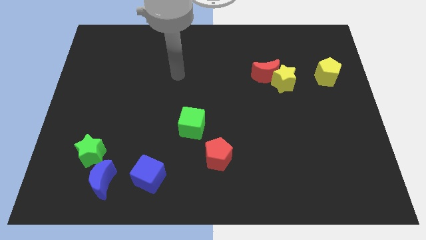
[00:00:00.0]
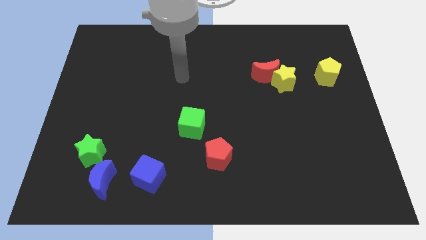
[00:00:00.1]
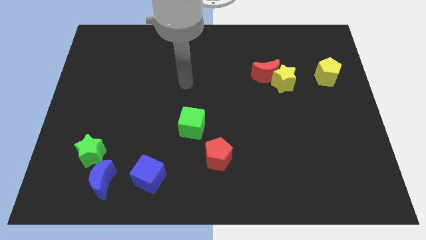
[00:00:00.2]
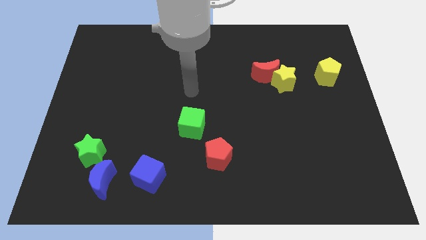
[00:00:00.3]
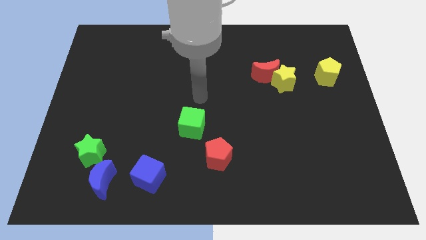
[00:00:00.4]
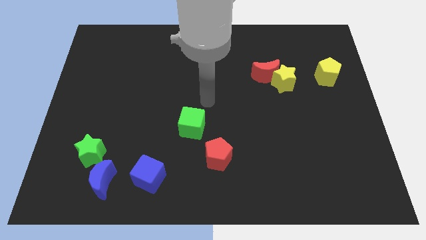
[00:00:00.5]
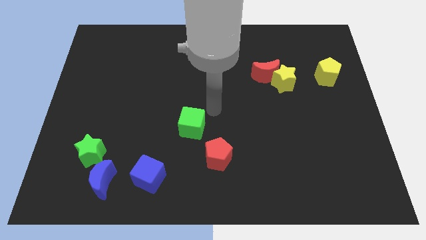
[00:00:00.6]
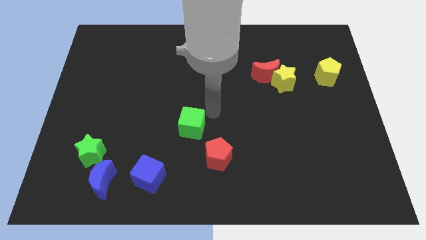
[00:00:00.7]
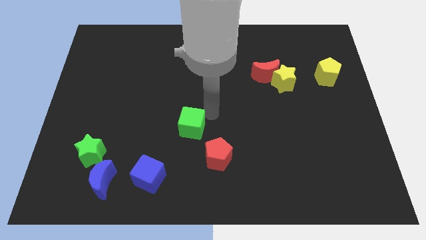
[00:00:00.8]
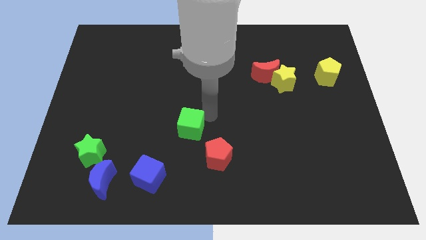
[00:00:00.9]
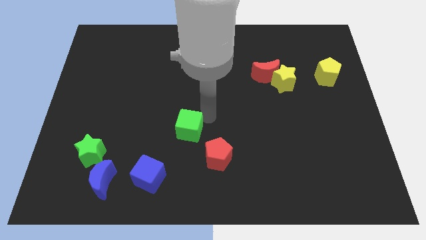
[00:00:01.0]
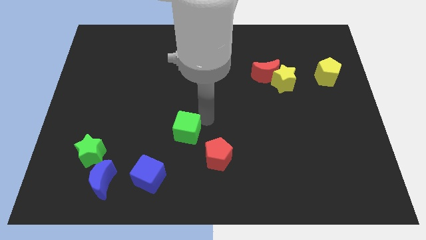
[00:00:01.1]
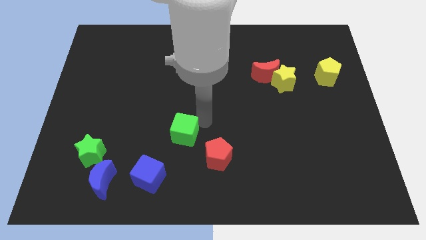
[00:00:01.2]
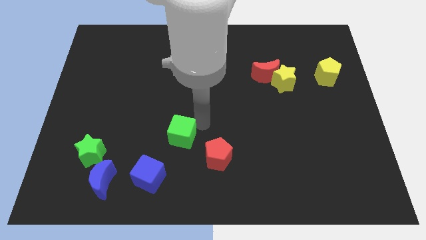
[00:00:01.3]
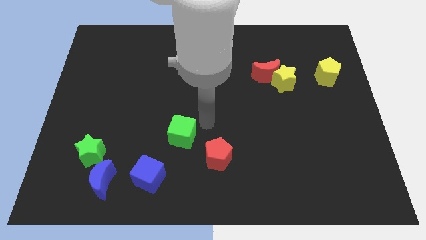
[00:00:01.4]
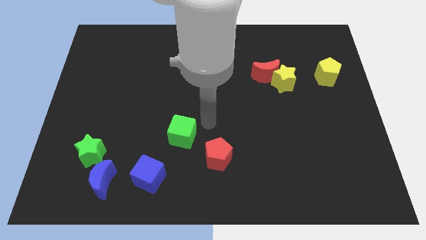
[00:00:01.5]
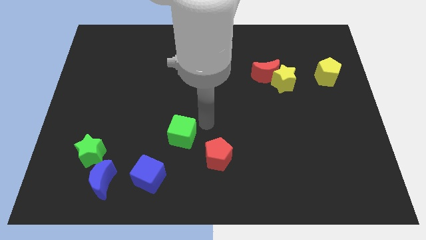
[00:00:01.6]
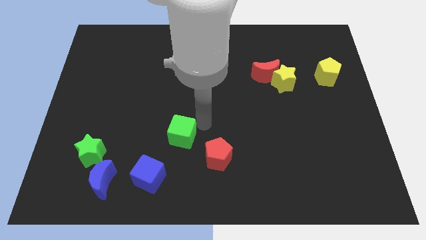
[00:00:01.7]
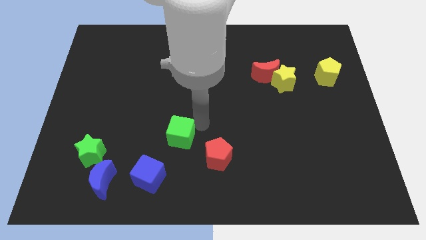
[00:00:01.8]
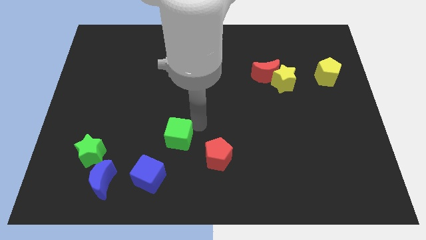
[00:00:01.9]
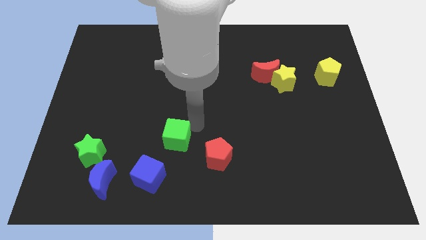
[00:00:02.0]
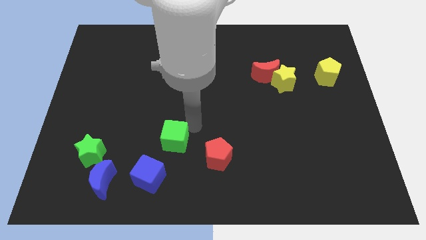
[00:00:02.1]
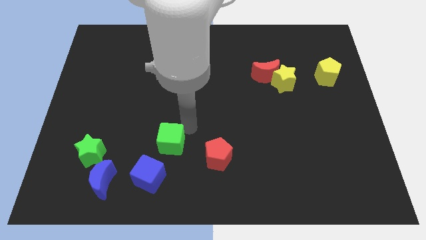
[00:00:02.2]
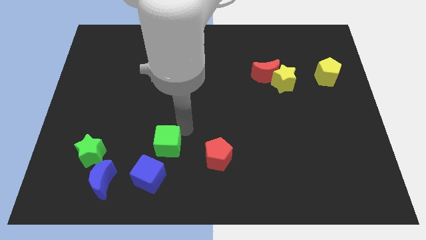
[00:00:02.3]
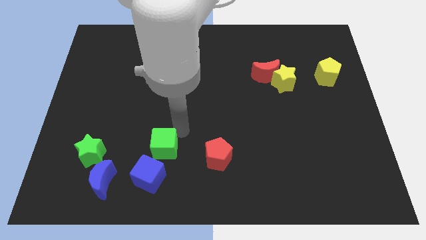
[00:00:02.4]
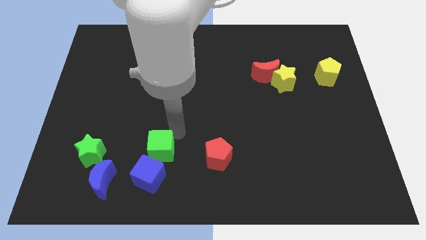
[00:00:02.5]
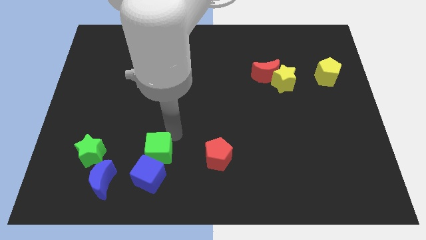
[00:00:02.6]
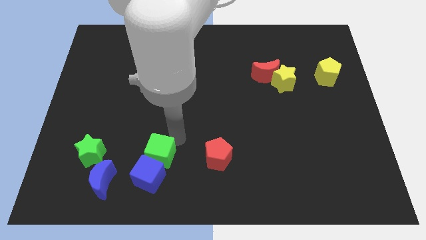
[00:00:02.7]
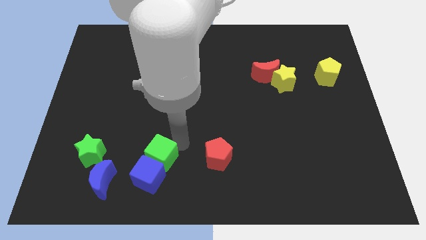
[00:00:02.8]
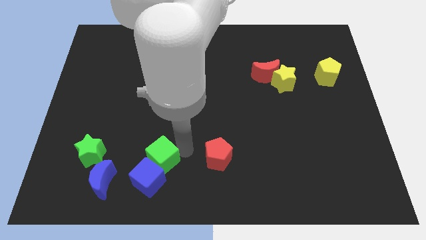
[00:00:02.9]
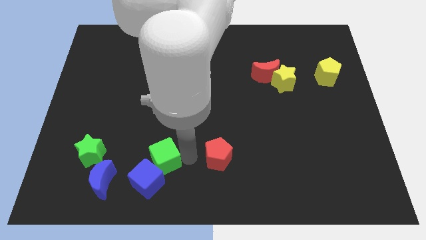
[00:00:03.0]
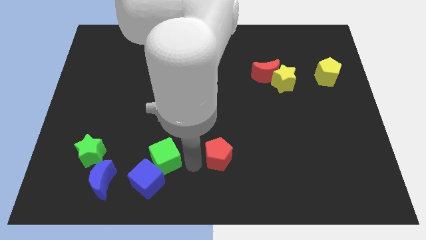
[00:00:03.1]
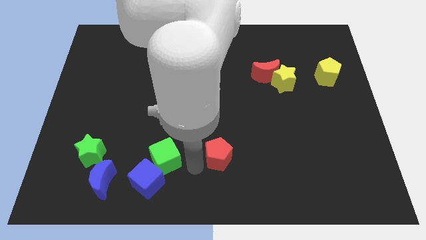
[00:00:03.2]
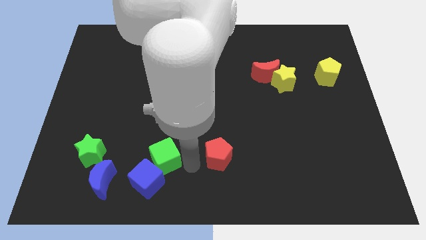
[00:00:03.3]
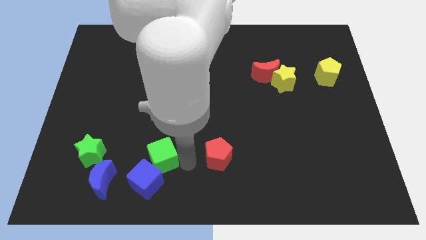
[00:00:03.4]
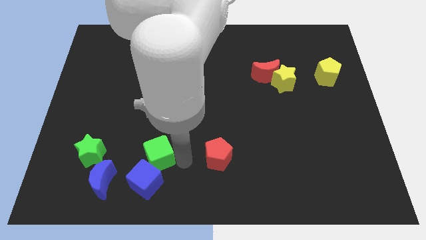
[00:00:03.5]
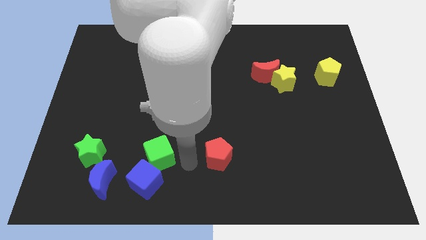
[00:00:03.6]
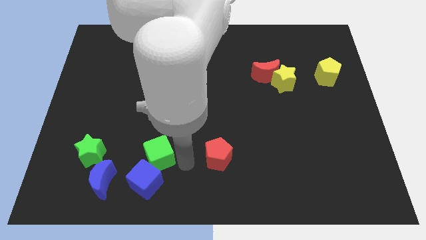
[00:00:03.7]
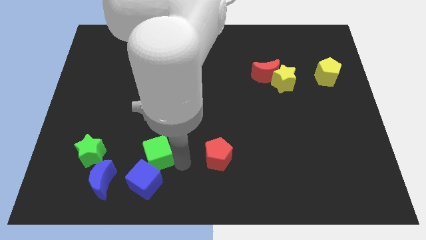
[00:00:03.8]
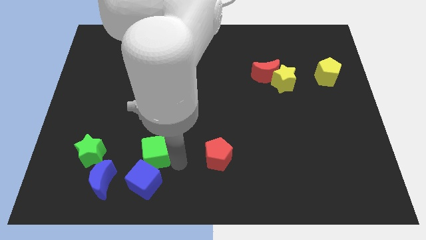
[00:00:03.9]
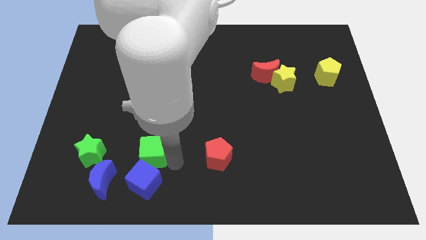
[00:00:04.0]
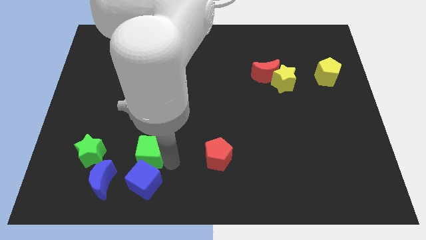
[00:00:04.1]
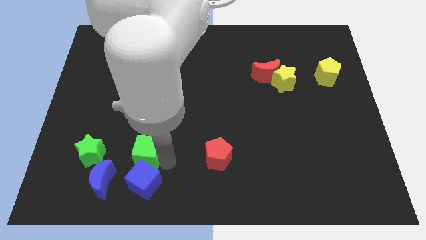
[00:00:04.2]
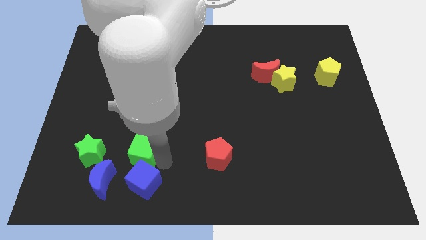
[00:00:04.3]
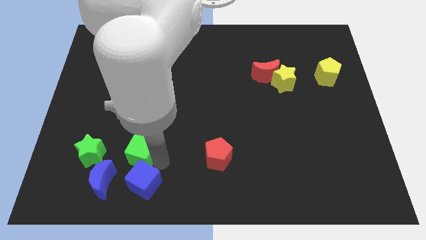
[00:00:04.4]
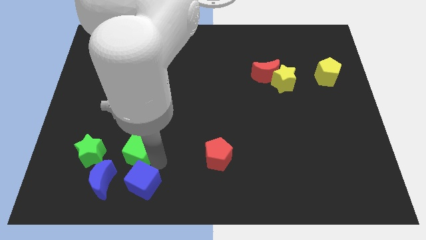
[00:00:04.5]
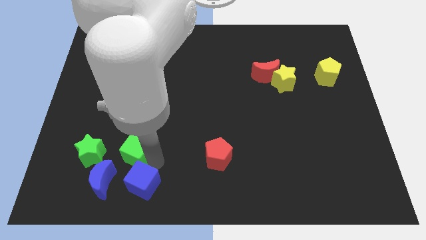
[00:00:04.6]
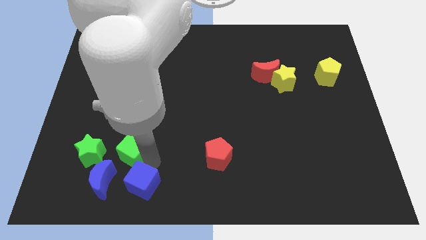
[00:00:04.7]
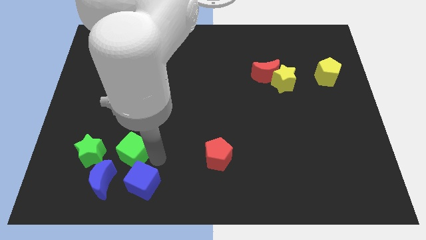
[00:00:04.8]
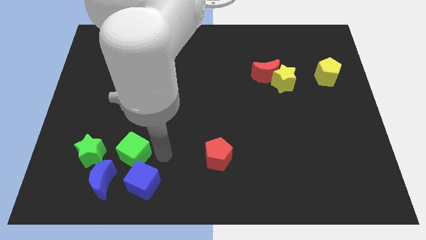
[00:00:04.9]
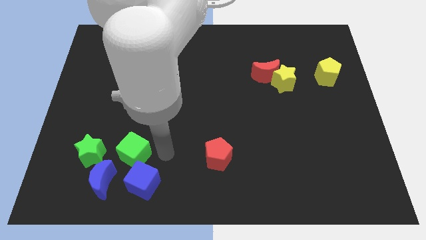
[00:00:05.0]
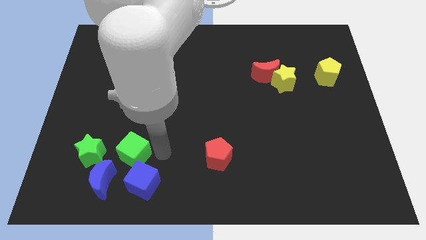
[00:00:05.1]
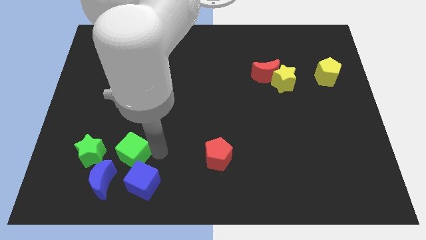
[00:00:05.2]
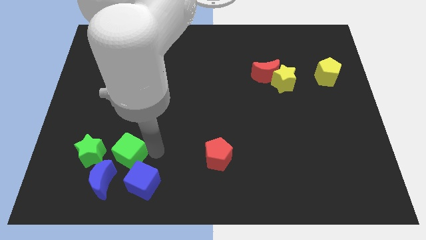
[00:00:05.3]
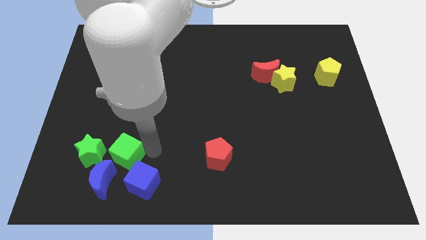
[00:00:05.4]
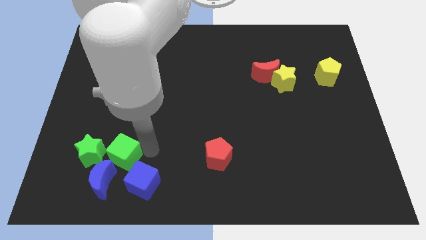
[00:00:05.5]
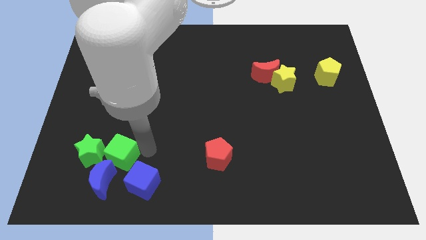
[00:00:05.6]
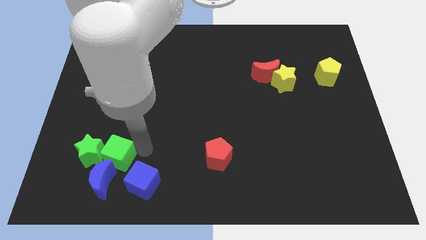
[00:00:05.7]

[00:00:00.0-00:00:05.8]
push the green cube towards the green star

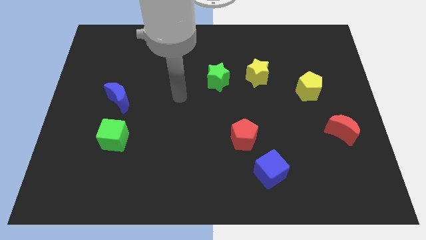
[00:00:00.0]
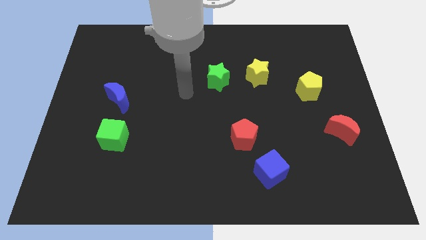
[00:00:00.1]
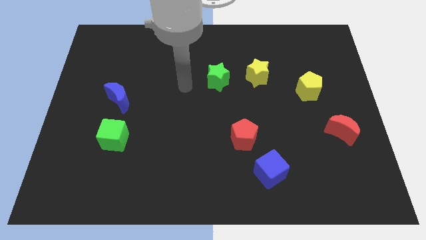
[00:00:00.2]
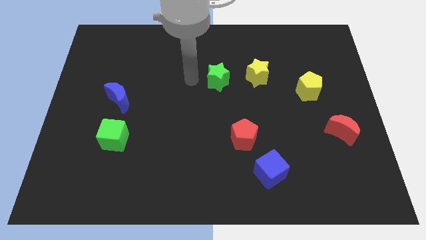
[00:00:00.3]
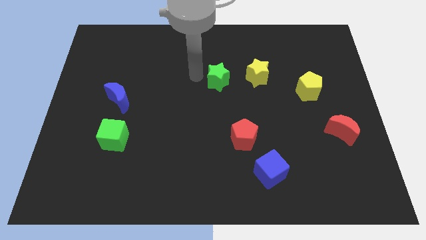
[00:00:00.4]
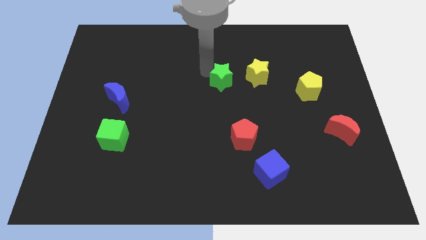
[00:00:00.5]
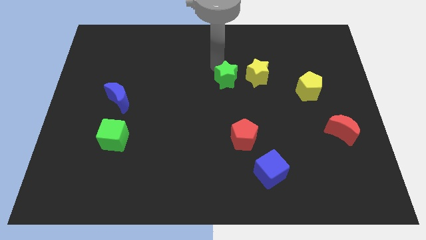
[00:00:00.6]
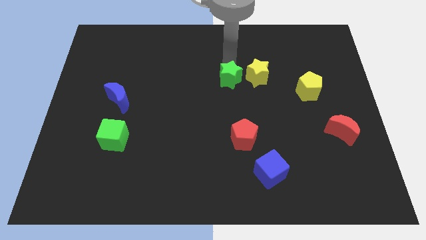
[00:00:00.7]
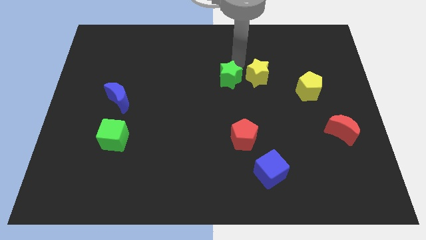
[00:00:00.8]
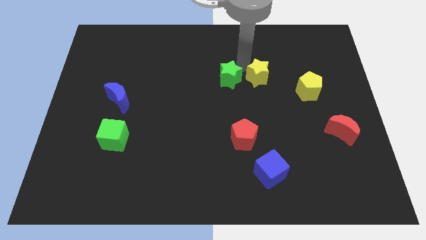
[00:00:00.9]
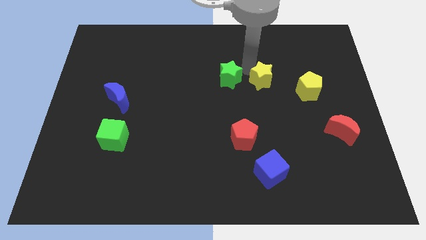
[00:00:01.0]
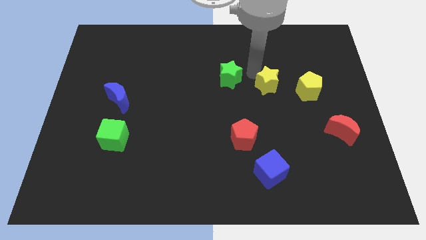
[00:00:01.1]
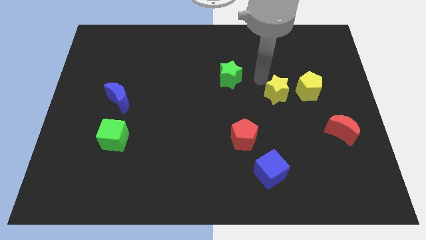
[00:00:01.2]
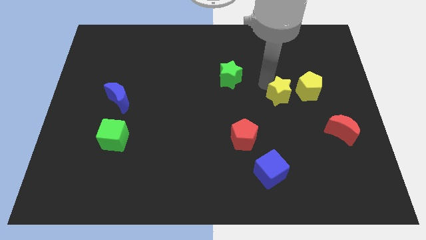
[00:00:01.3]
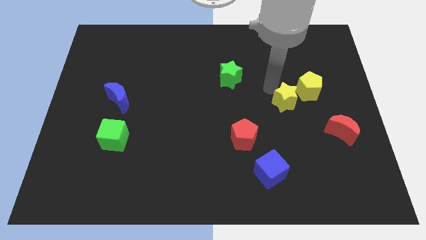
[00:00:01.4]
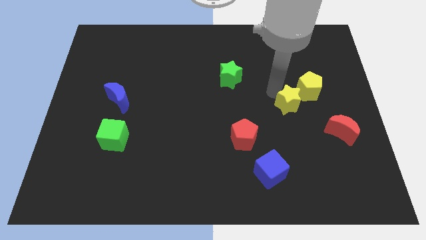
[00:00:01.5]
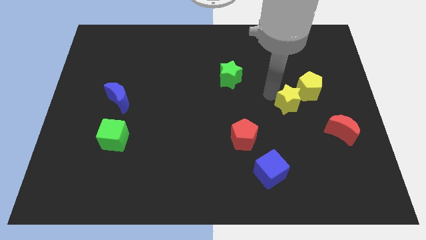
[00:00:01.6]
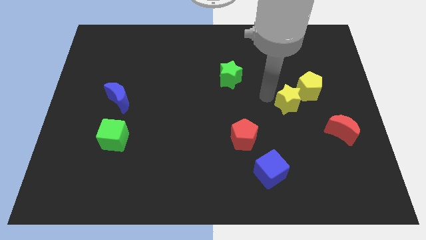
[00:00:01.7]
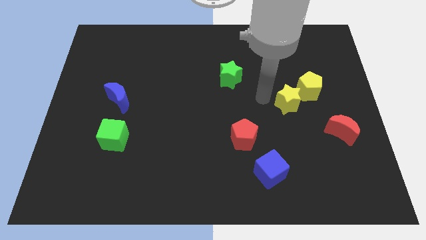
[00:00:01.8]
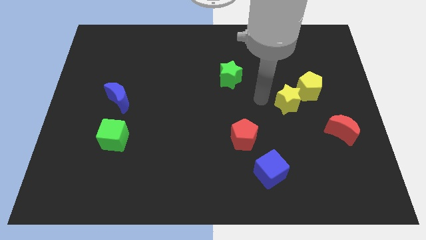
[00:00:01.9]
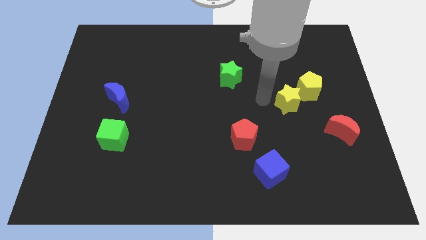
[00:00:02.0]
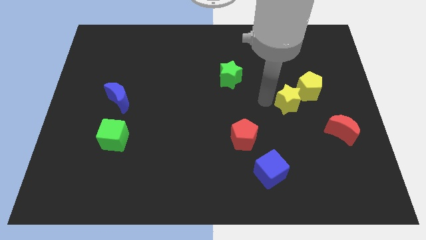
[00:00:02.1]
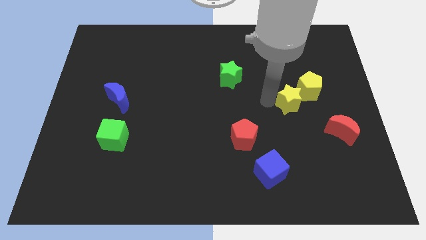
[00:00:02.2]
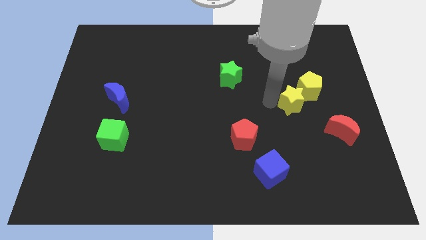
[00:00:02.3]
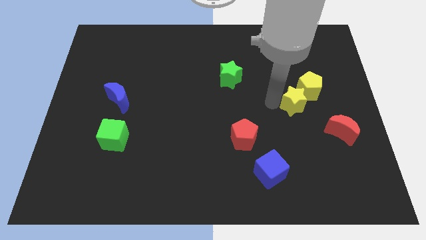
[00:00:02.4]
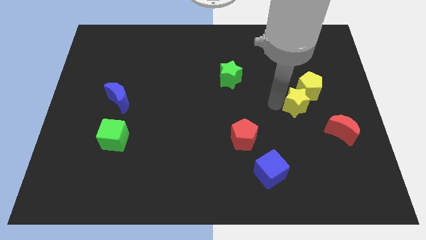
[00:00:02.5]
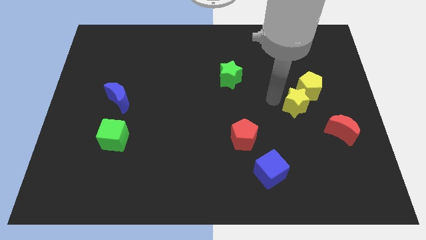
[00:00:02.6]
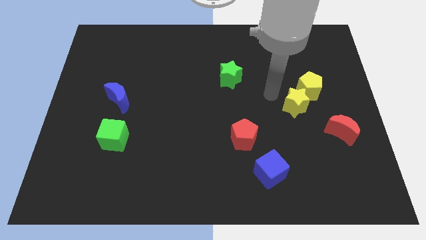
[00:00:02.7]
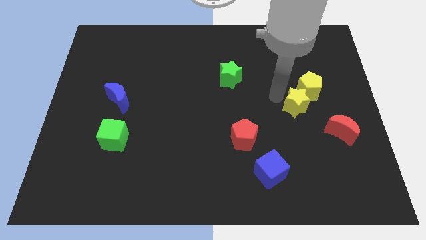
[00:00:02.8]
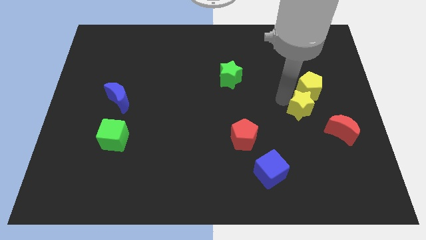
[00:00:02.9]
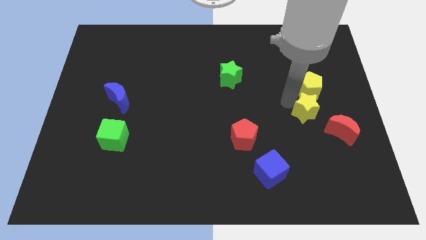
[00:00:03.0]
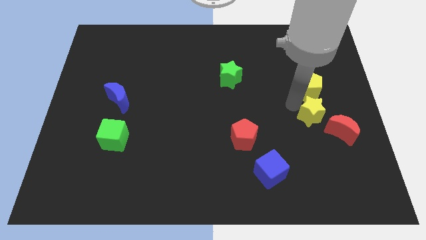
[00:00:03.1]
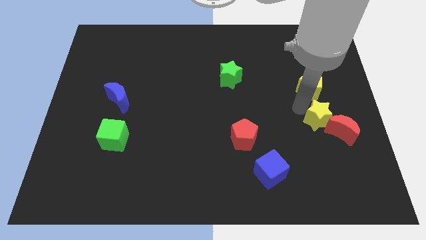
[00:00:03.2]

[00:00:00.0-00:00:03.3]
move the yellow star next to the red moon
